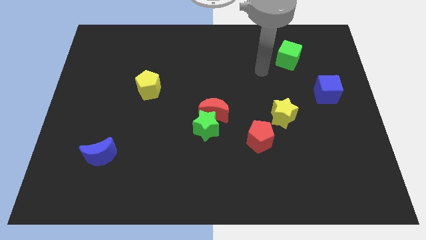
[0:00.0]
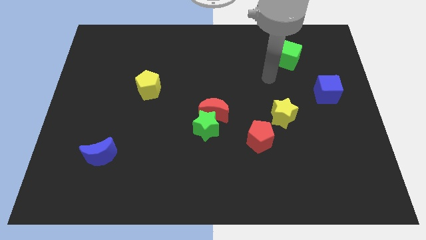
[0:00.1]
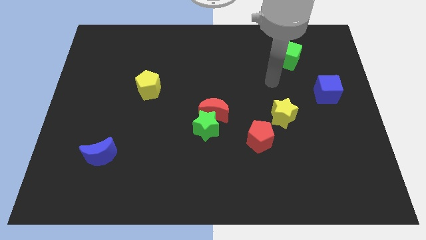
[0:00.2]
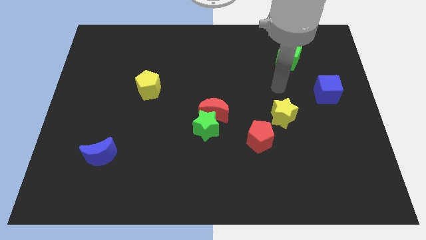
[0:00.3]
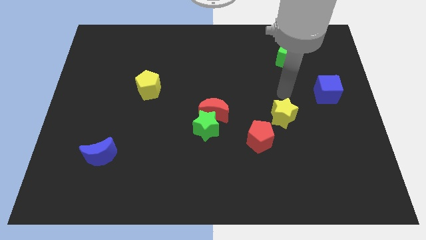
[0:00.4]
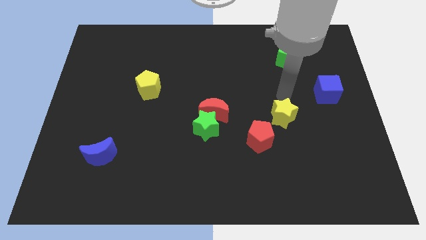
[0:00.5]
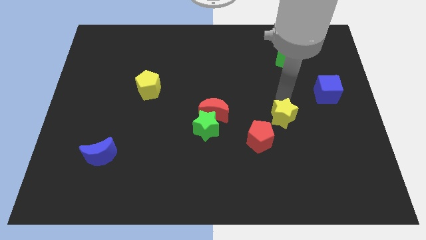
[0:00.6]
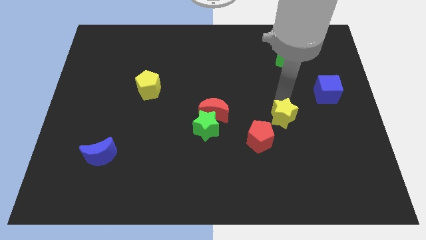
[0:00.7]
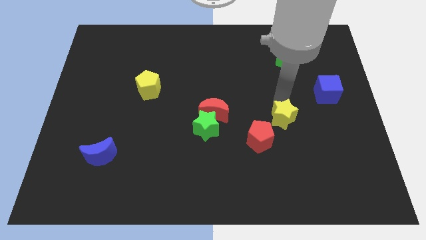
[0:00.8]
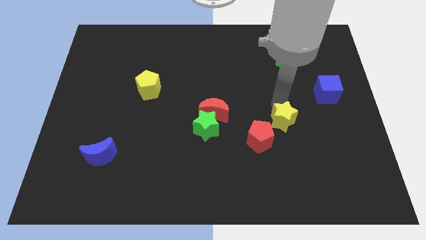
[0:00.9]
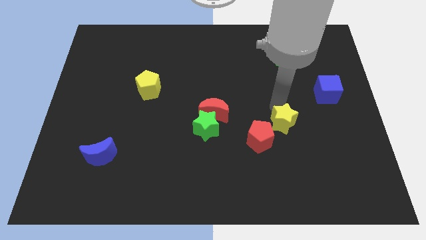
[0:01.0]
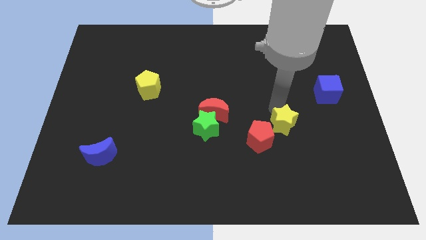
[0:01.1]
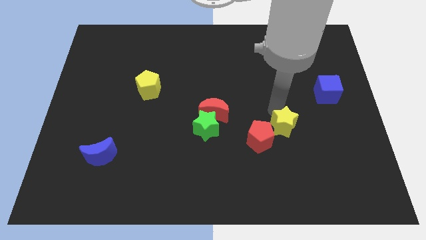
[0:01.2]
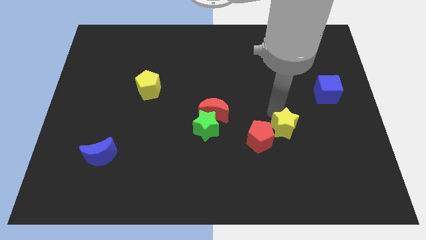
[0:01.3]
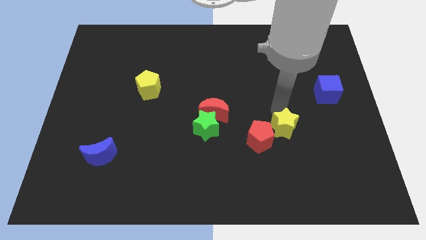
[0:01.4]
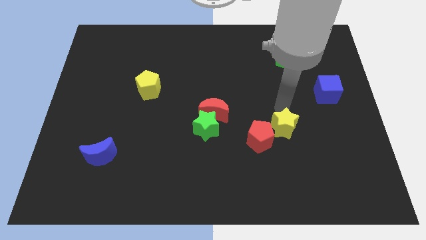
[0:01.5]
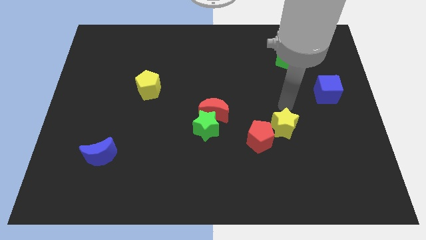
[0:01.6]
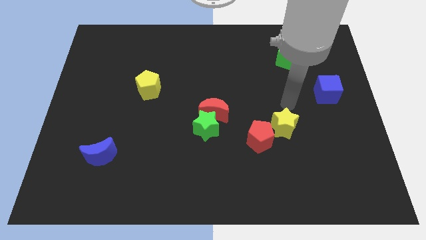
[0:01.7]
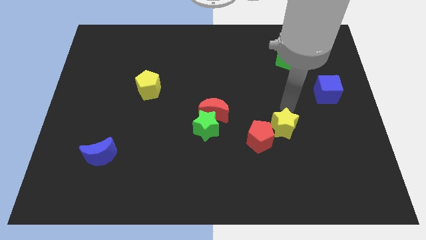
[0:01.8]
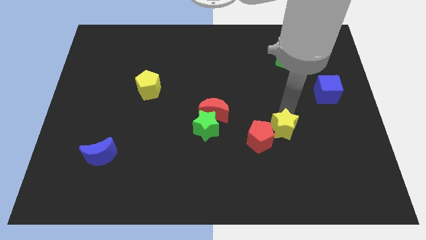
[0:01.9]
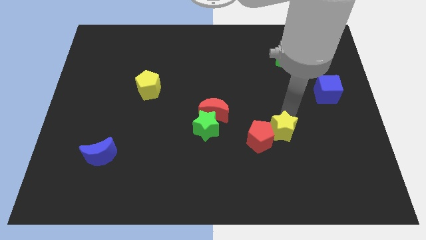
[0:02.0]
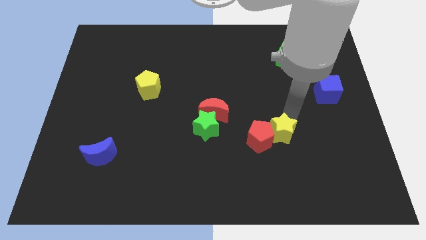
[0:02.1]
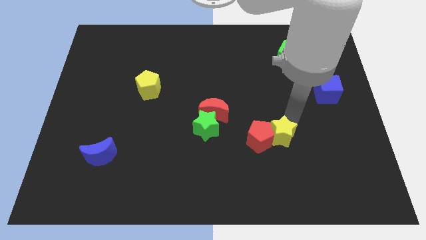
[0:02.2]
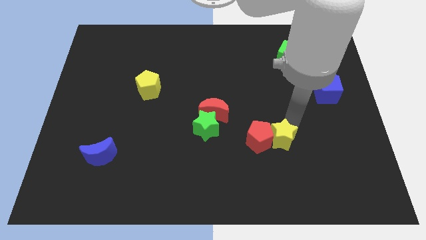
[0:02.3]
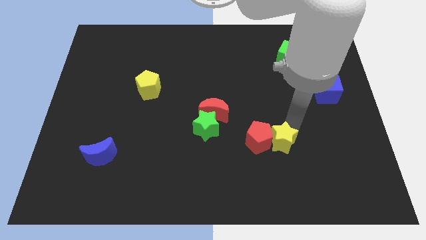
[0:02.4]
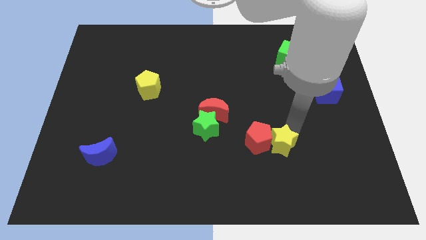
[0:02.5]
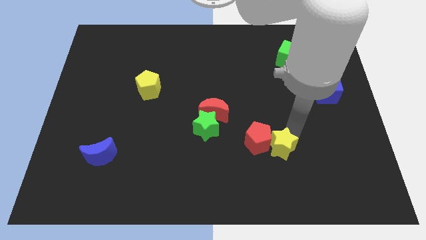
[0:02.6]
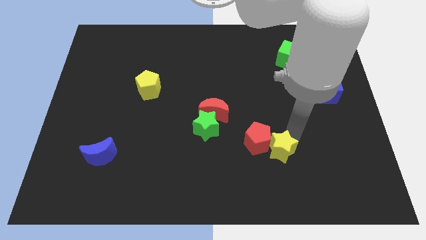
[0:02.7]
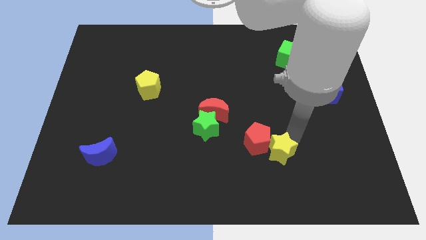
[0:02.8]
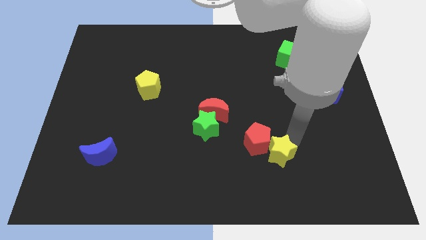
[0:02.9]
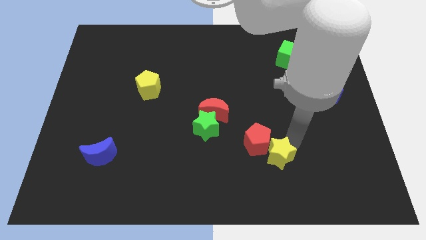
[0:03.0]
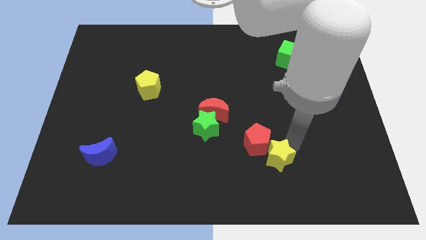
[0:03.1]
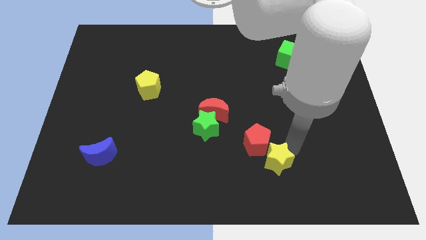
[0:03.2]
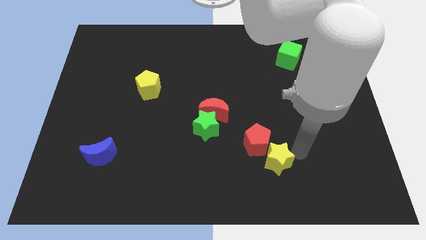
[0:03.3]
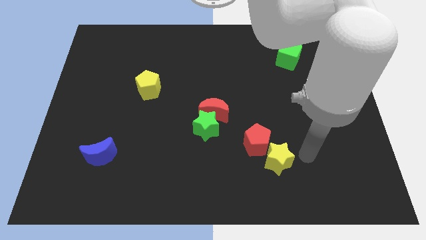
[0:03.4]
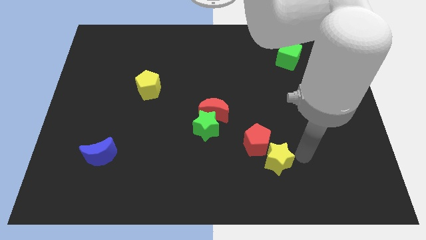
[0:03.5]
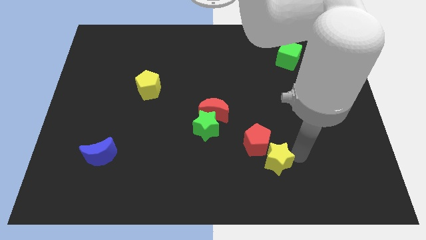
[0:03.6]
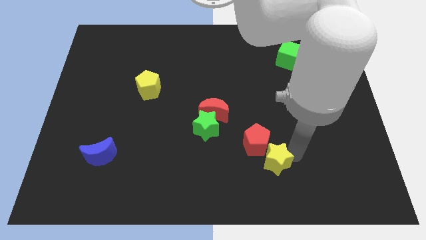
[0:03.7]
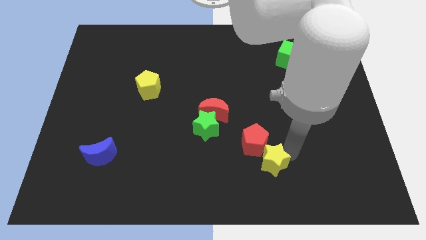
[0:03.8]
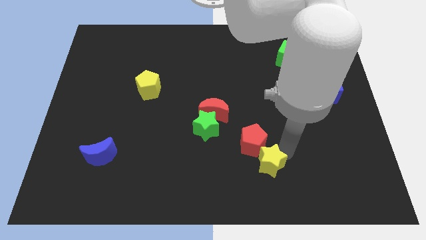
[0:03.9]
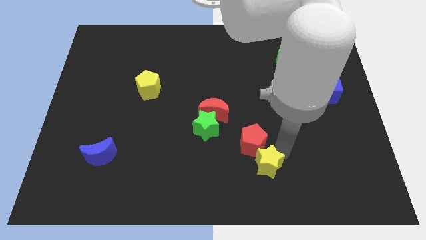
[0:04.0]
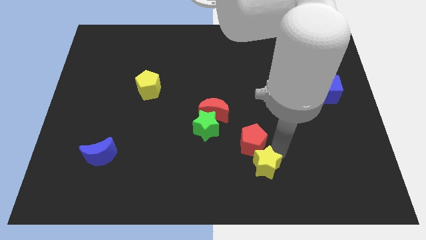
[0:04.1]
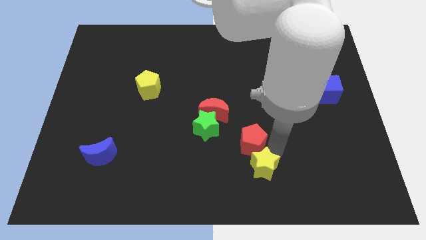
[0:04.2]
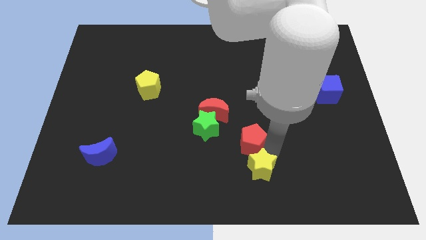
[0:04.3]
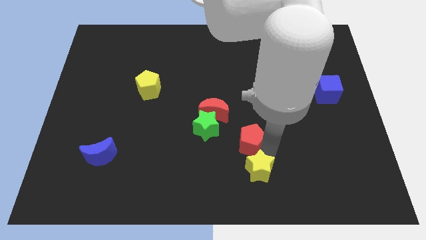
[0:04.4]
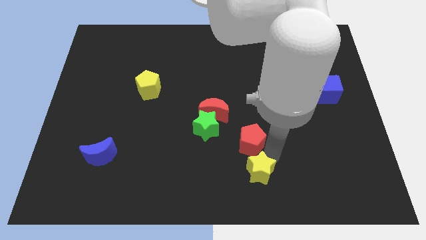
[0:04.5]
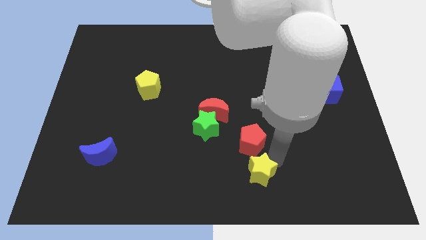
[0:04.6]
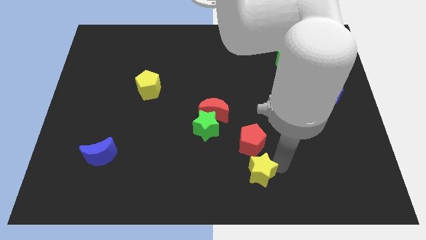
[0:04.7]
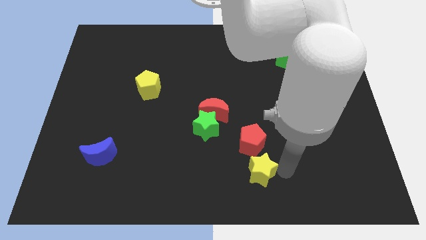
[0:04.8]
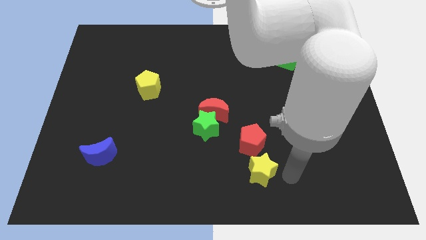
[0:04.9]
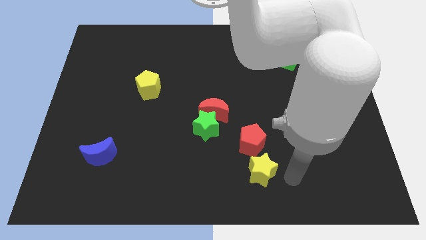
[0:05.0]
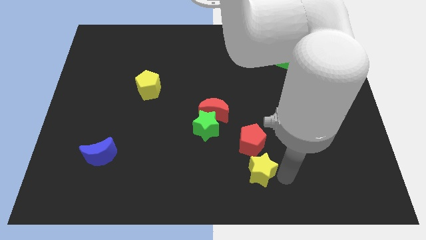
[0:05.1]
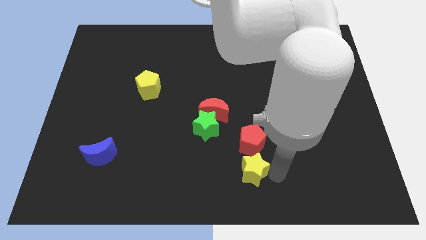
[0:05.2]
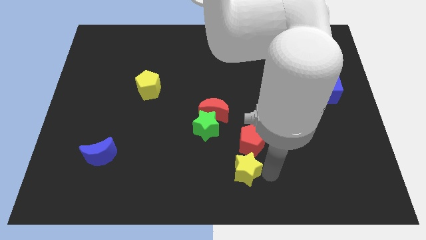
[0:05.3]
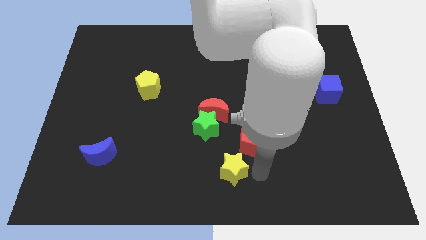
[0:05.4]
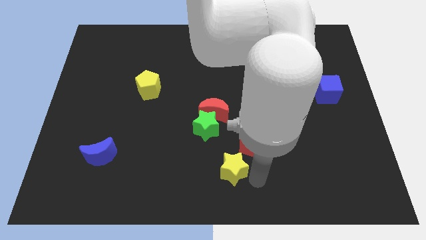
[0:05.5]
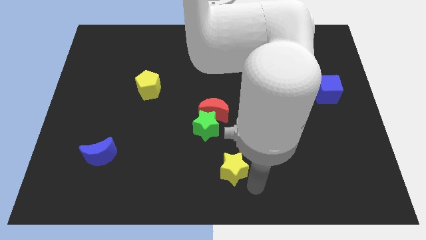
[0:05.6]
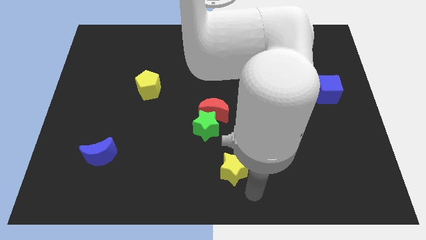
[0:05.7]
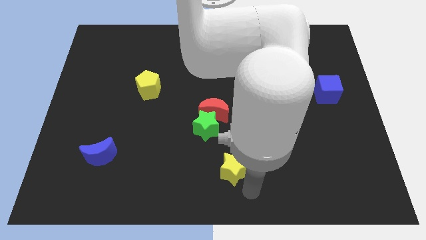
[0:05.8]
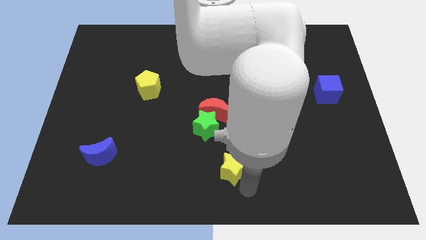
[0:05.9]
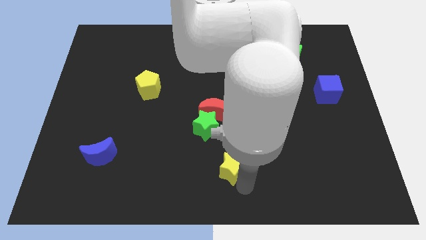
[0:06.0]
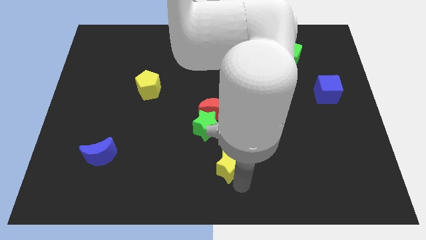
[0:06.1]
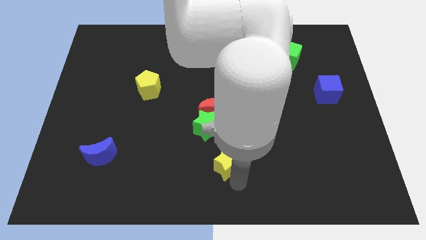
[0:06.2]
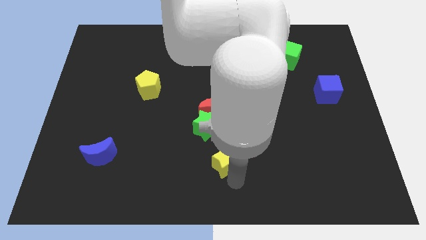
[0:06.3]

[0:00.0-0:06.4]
push the yellow star left of the red pentagon

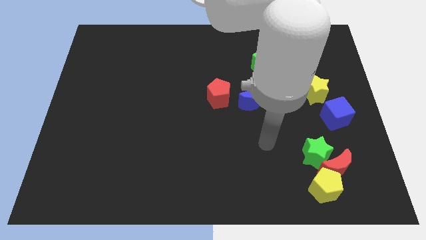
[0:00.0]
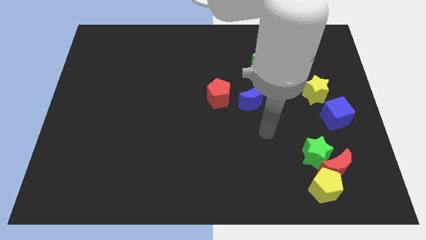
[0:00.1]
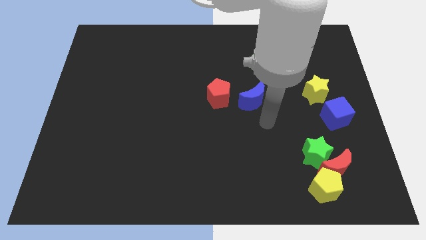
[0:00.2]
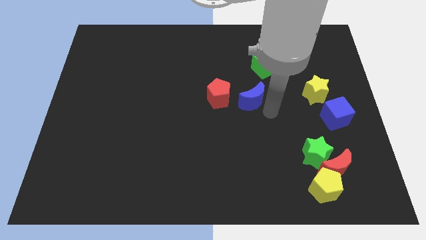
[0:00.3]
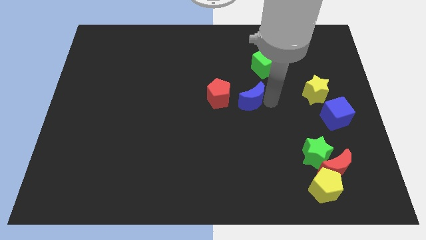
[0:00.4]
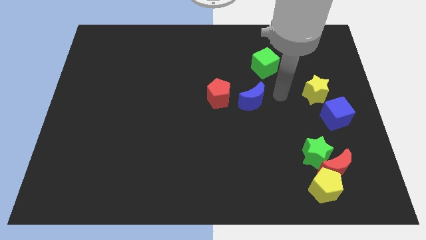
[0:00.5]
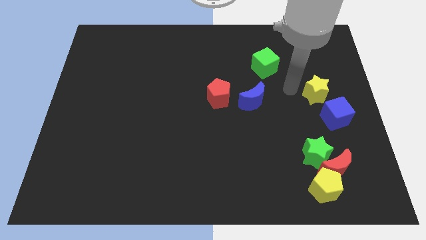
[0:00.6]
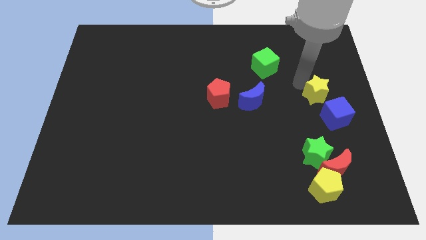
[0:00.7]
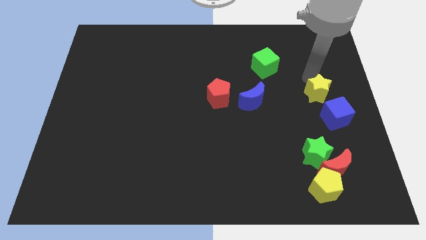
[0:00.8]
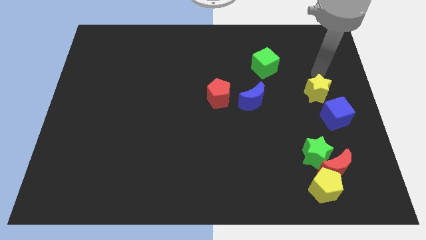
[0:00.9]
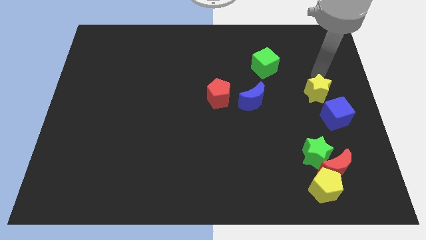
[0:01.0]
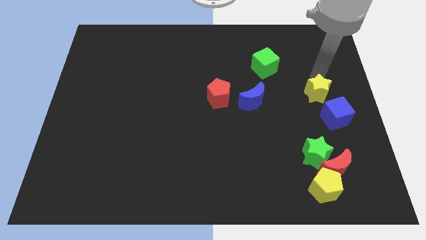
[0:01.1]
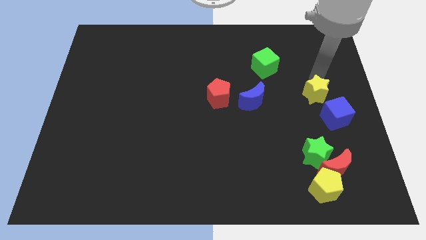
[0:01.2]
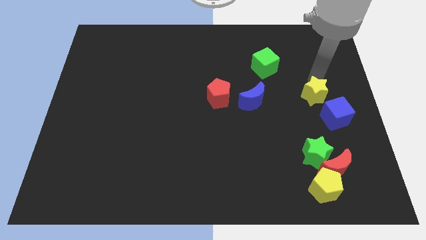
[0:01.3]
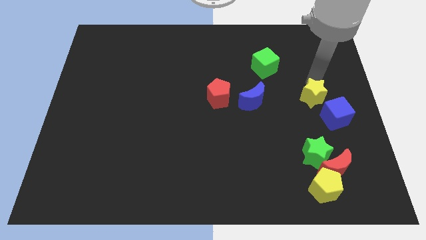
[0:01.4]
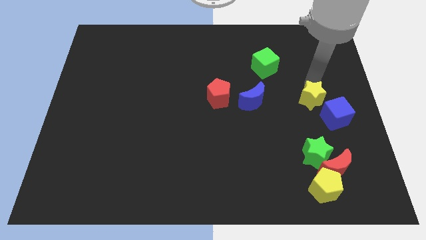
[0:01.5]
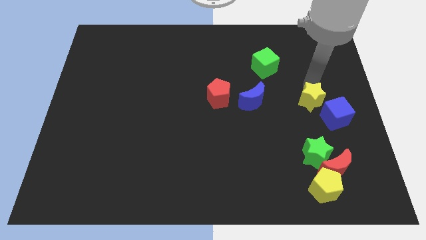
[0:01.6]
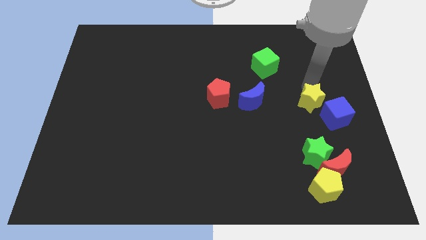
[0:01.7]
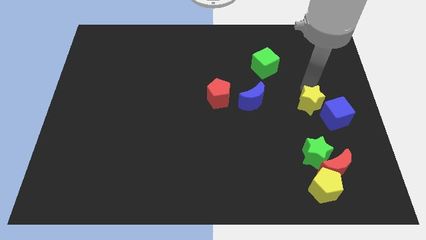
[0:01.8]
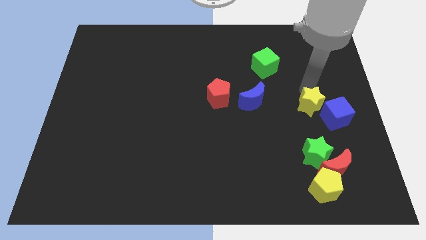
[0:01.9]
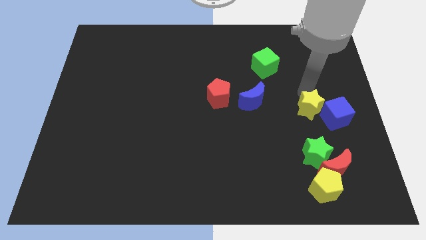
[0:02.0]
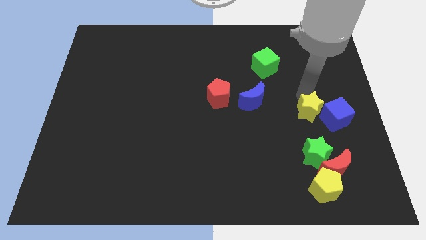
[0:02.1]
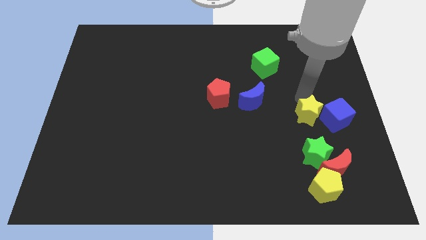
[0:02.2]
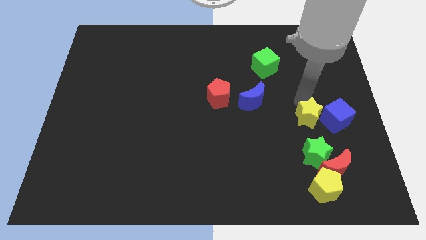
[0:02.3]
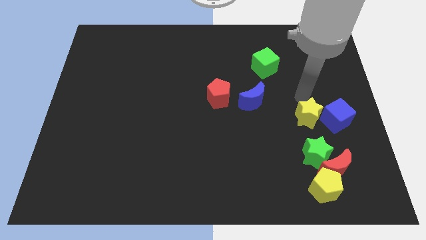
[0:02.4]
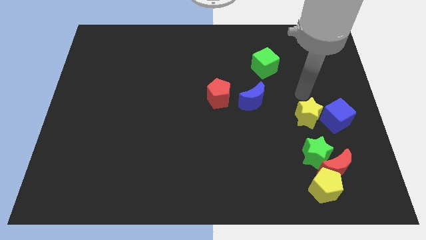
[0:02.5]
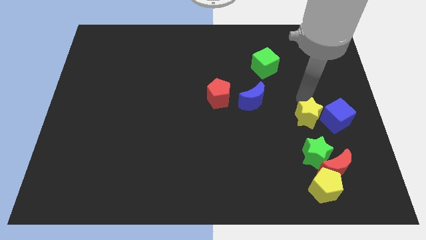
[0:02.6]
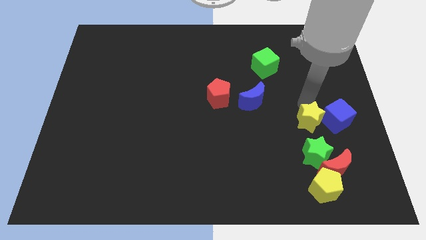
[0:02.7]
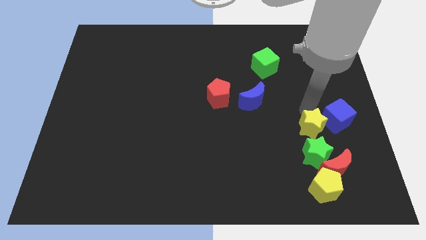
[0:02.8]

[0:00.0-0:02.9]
slide the yellow star to the top side of the yellow pentagon
